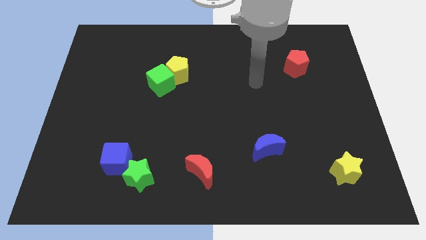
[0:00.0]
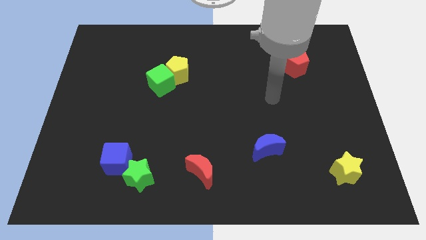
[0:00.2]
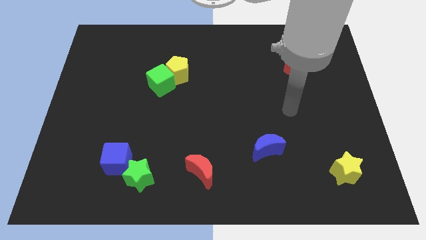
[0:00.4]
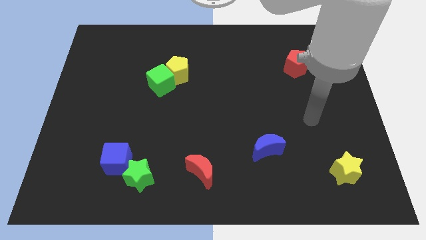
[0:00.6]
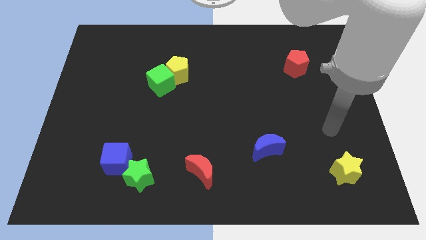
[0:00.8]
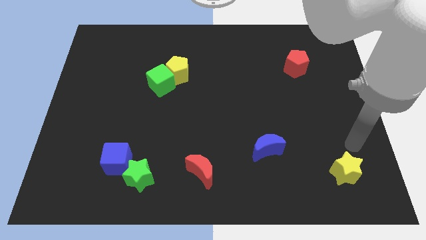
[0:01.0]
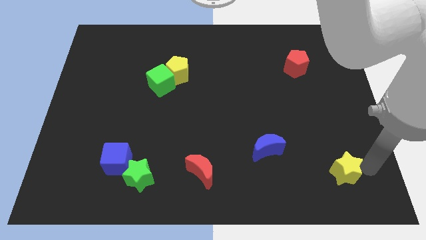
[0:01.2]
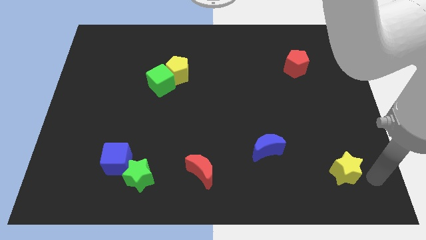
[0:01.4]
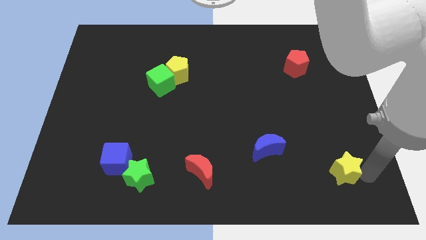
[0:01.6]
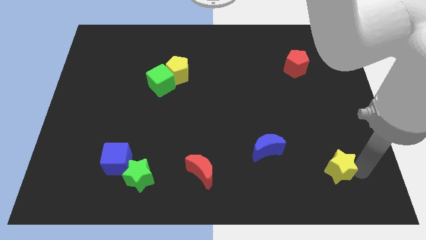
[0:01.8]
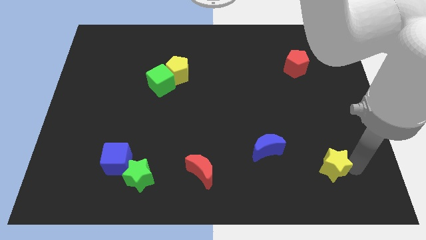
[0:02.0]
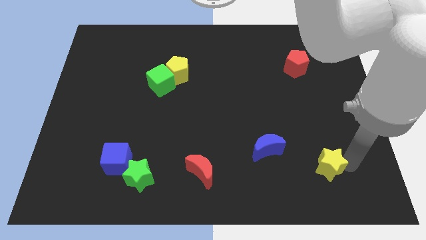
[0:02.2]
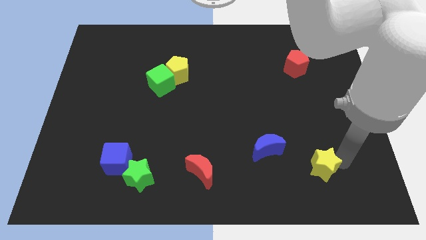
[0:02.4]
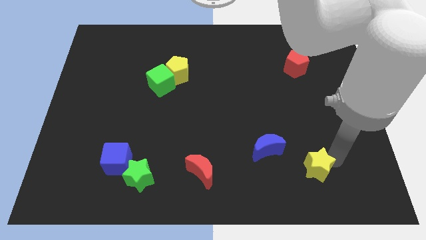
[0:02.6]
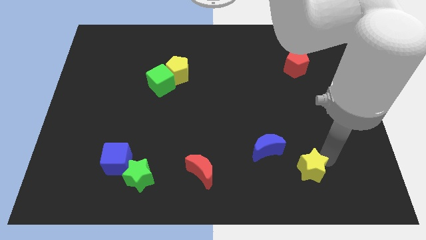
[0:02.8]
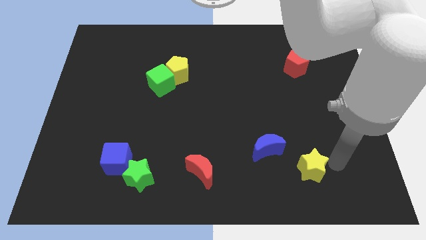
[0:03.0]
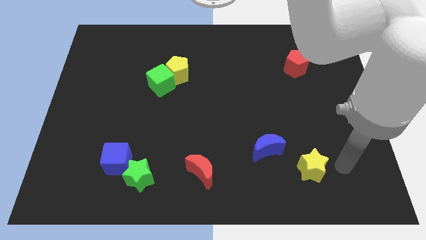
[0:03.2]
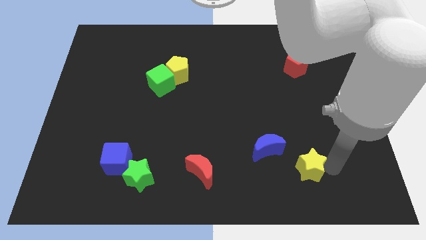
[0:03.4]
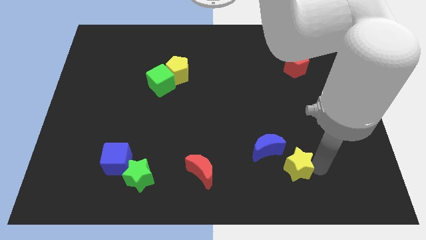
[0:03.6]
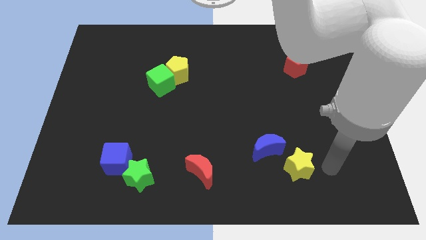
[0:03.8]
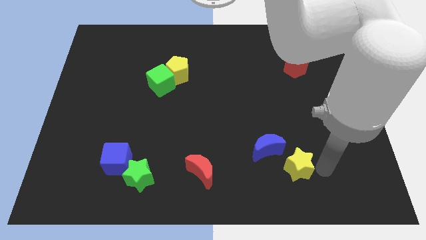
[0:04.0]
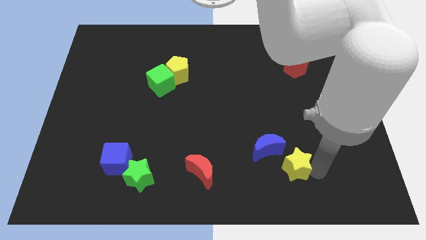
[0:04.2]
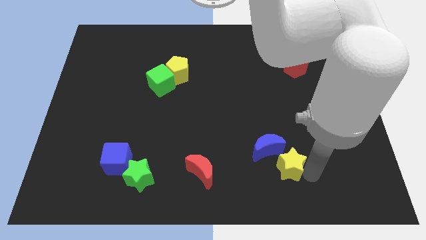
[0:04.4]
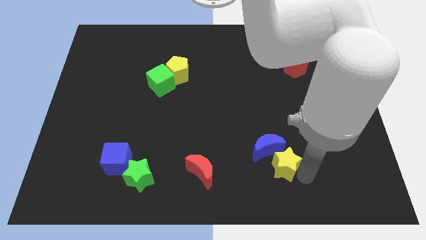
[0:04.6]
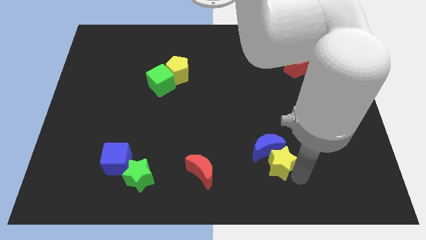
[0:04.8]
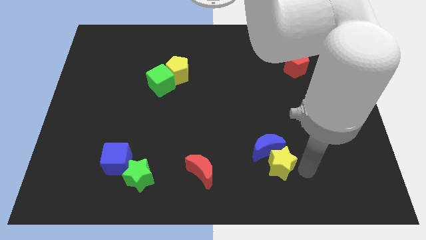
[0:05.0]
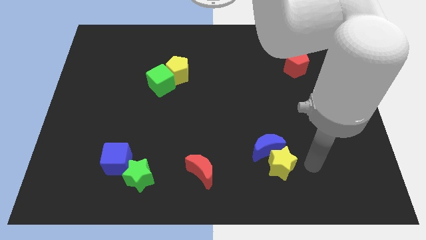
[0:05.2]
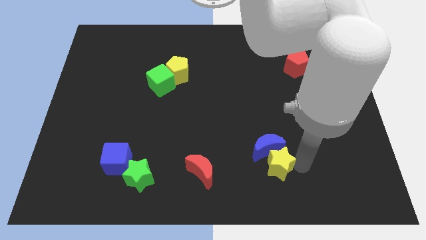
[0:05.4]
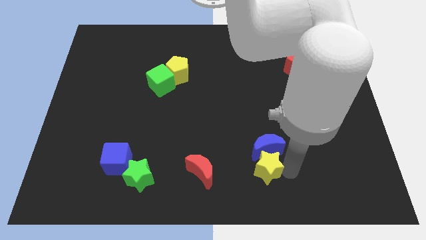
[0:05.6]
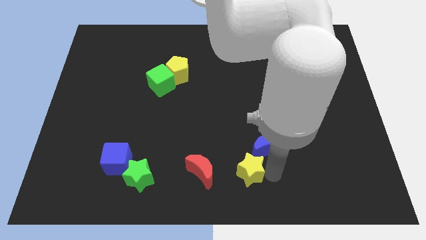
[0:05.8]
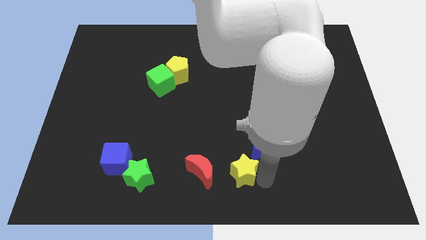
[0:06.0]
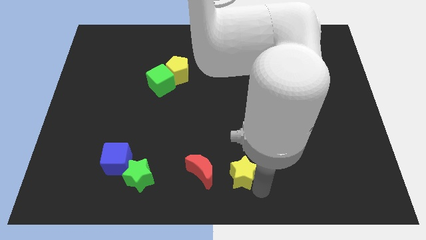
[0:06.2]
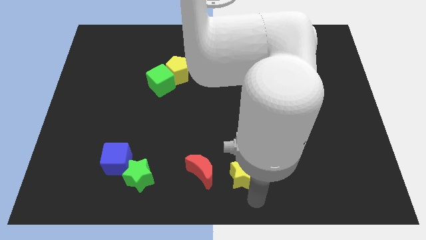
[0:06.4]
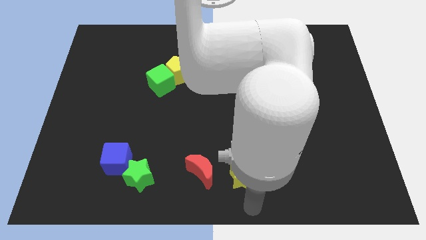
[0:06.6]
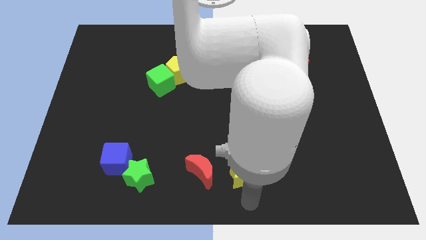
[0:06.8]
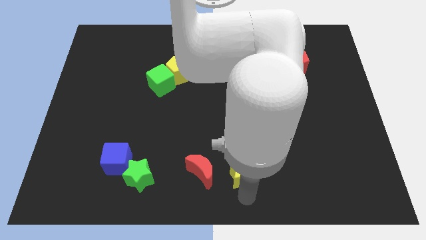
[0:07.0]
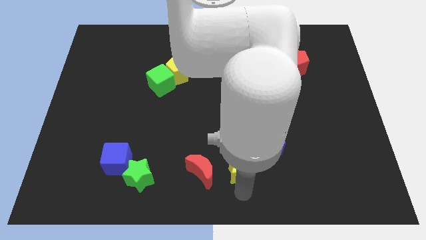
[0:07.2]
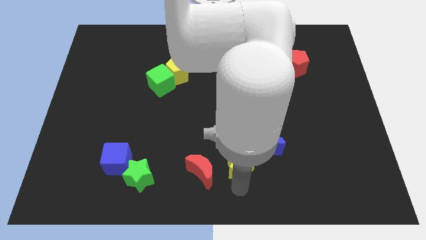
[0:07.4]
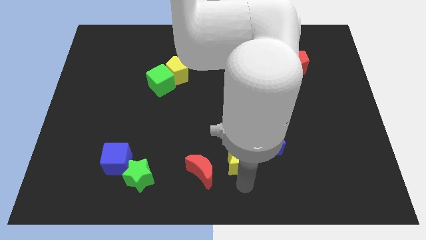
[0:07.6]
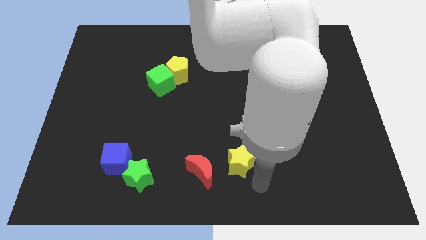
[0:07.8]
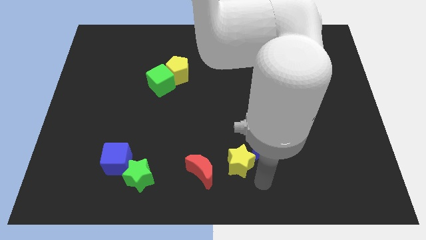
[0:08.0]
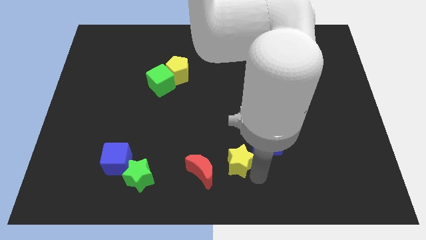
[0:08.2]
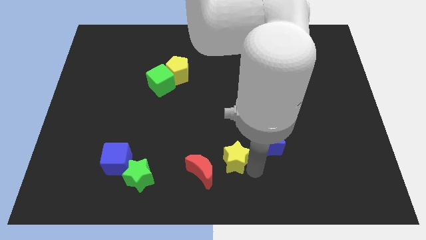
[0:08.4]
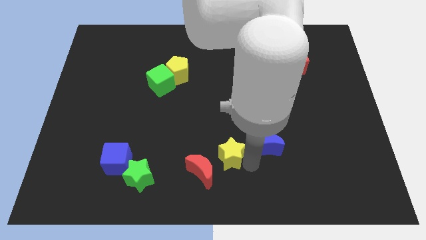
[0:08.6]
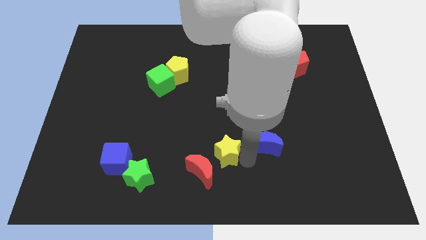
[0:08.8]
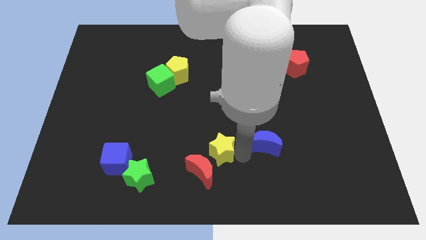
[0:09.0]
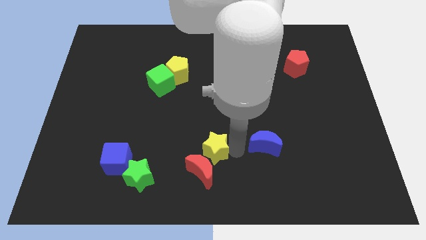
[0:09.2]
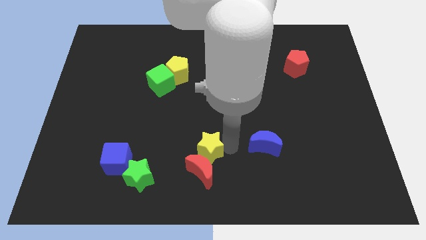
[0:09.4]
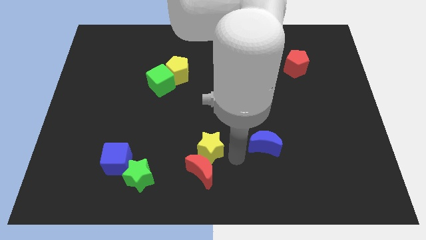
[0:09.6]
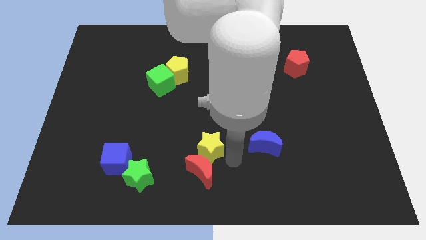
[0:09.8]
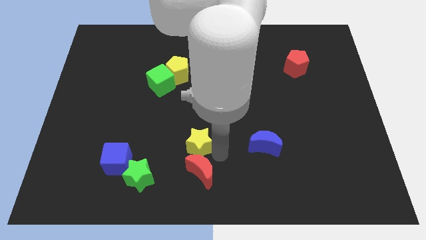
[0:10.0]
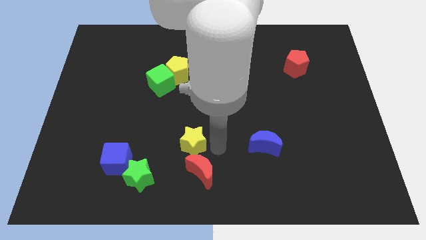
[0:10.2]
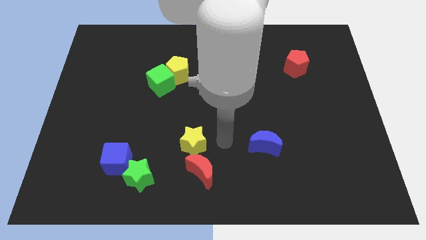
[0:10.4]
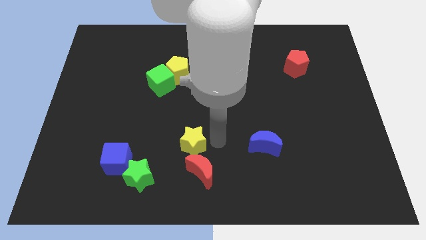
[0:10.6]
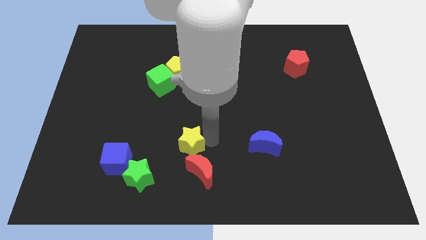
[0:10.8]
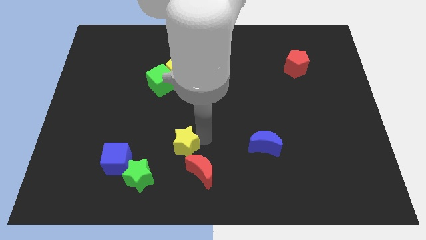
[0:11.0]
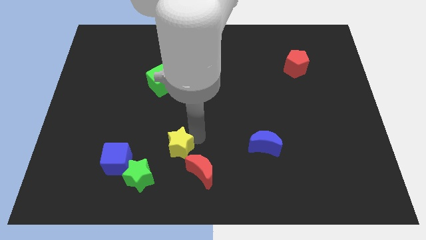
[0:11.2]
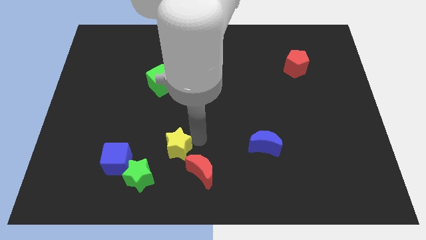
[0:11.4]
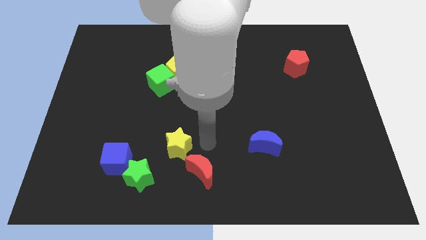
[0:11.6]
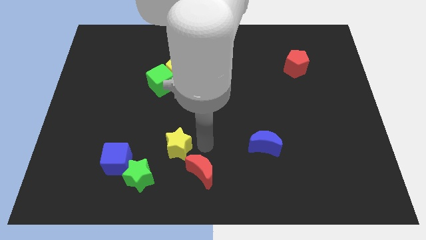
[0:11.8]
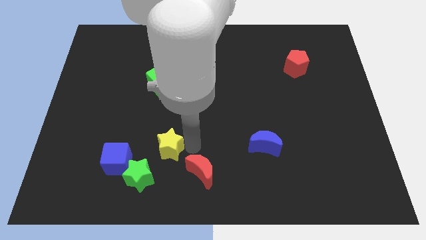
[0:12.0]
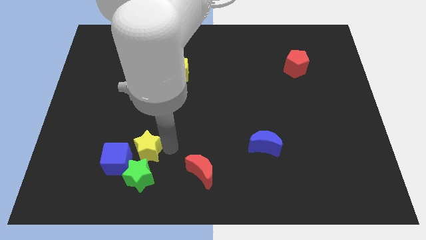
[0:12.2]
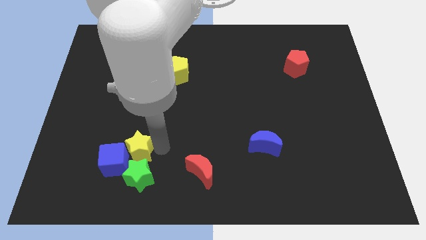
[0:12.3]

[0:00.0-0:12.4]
push the yellow star to the blue cube

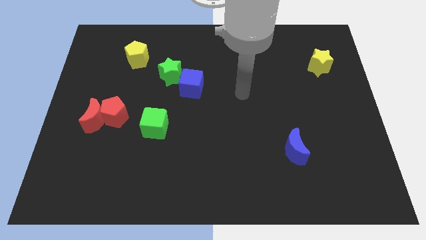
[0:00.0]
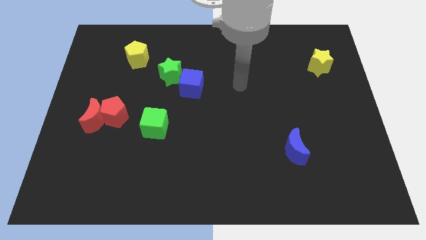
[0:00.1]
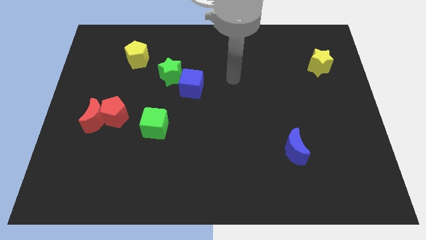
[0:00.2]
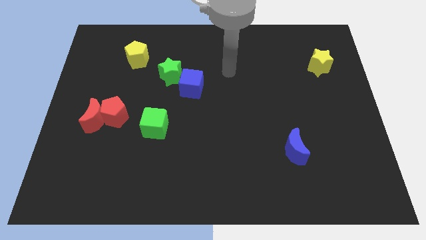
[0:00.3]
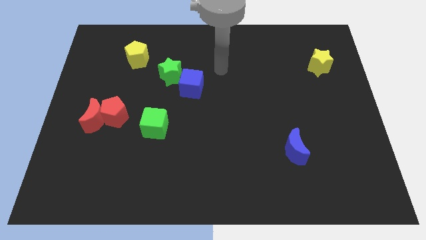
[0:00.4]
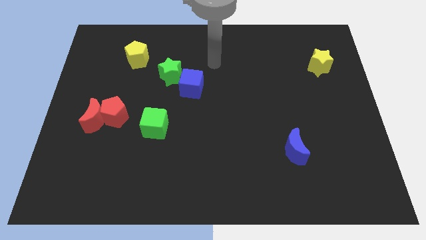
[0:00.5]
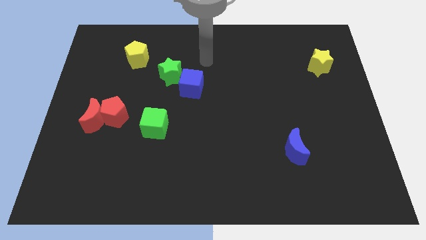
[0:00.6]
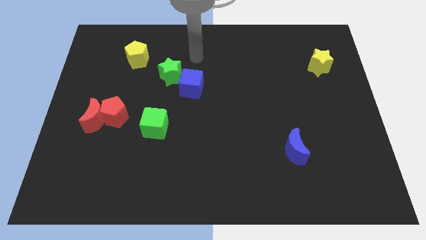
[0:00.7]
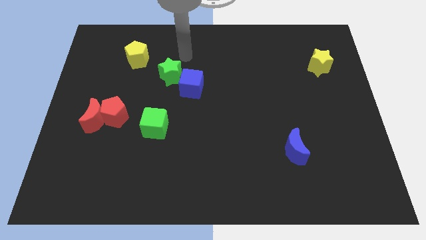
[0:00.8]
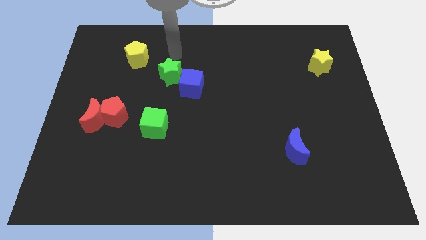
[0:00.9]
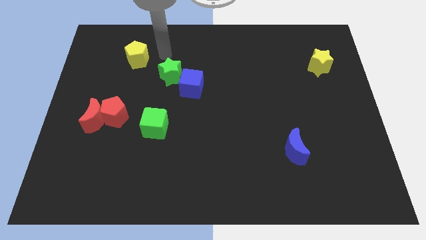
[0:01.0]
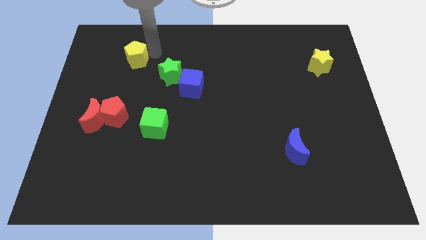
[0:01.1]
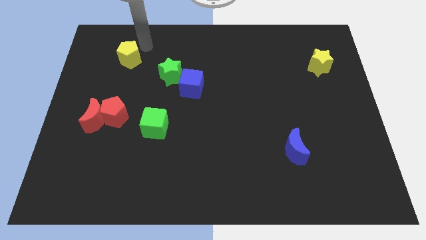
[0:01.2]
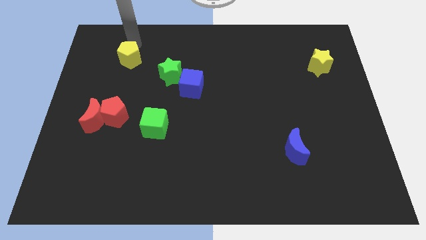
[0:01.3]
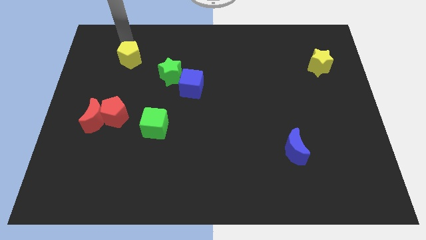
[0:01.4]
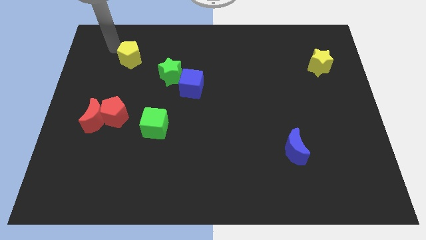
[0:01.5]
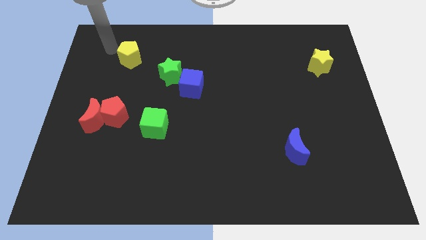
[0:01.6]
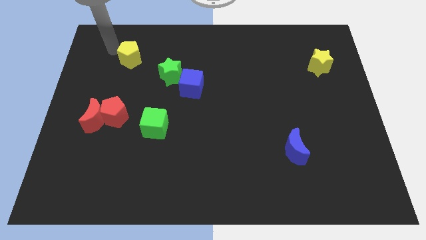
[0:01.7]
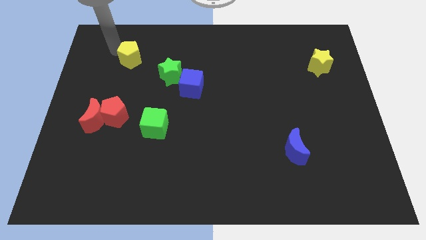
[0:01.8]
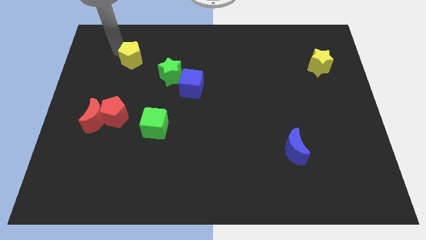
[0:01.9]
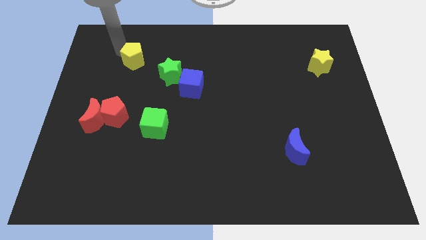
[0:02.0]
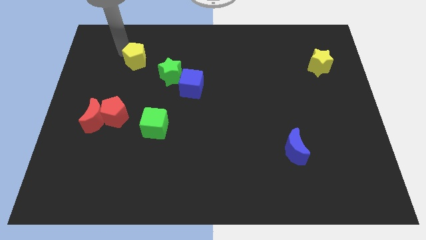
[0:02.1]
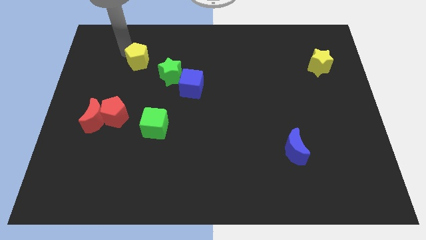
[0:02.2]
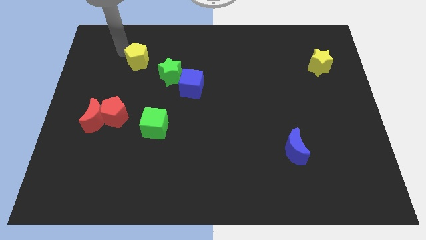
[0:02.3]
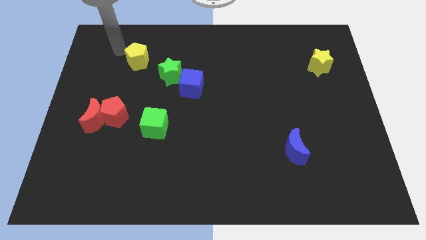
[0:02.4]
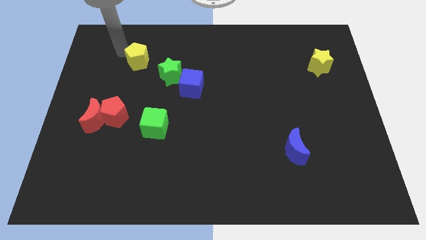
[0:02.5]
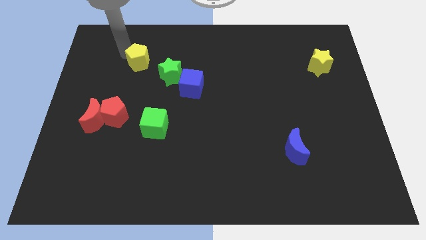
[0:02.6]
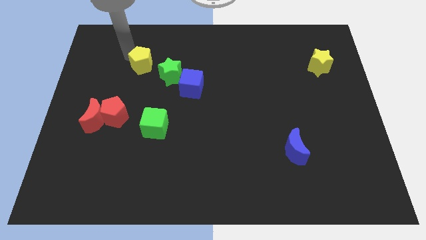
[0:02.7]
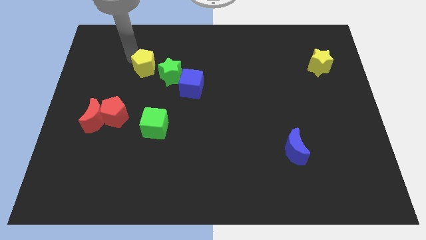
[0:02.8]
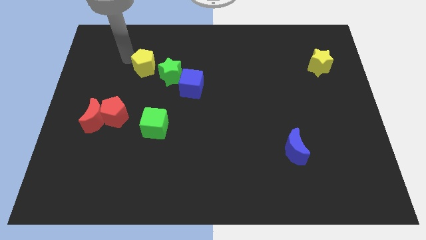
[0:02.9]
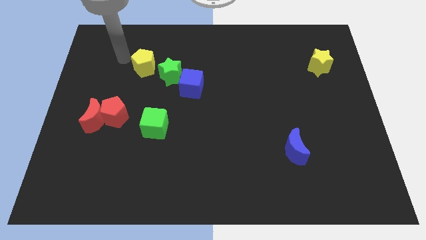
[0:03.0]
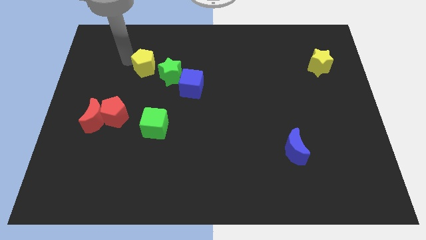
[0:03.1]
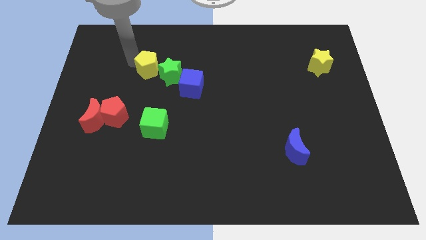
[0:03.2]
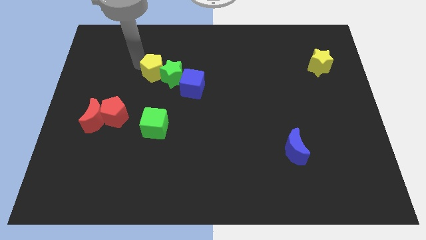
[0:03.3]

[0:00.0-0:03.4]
push the yellow pentagon towards the green star
